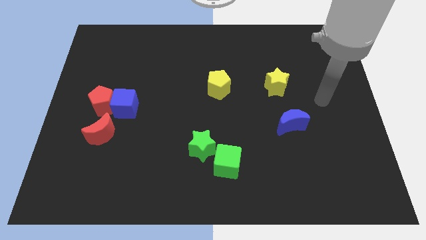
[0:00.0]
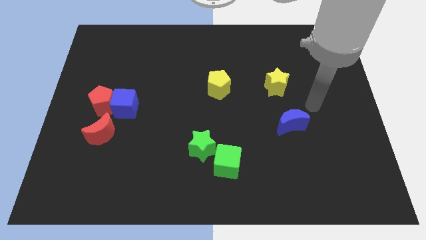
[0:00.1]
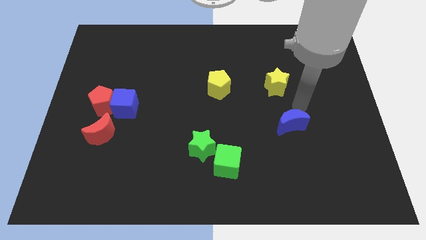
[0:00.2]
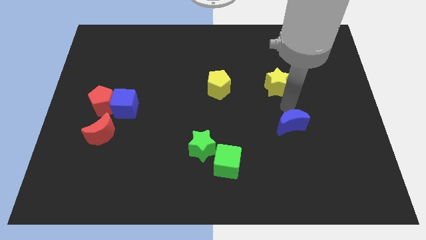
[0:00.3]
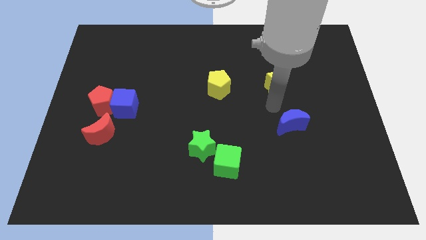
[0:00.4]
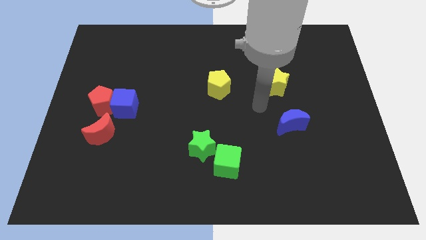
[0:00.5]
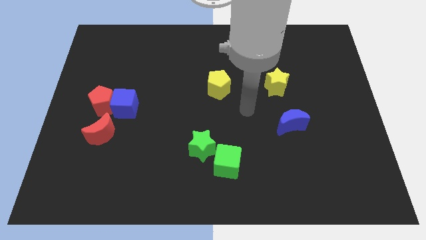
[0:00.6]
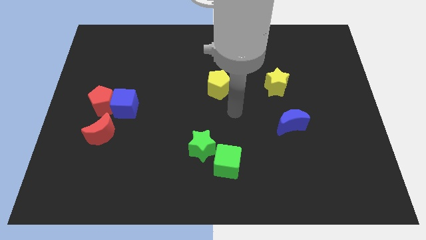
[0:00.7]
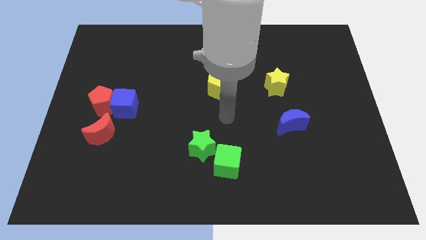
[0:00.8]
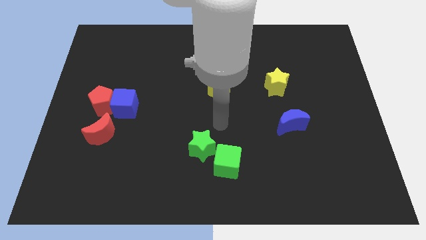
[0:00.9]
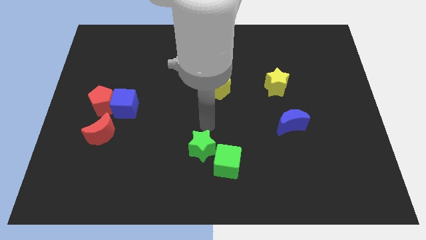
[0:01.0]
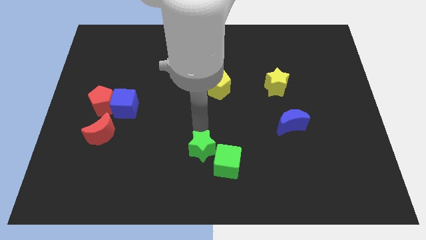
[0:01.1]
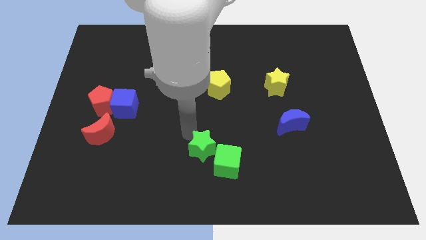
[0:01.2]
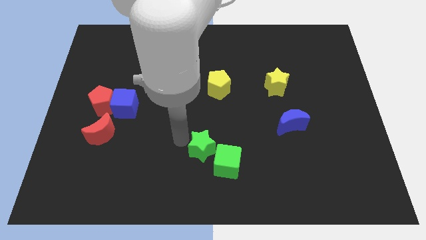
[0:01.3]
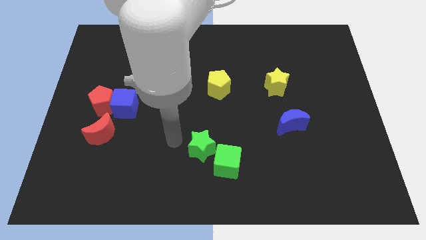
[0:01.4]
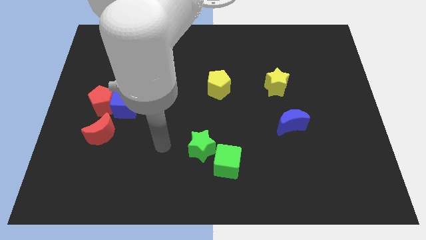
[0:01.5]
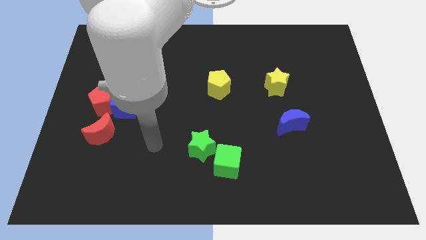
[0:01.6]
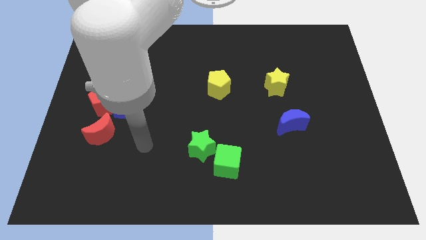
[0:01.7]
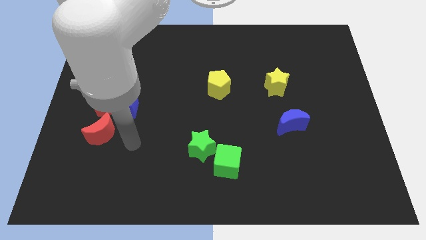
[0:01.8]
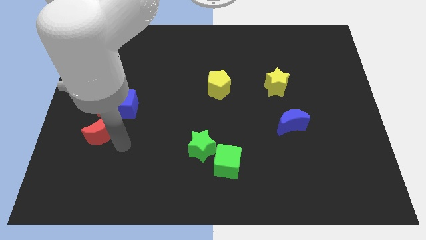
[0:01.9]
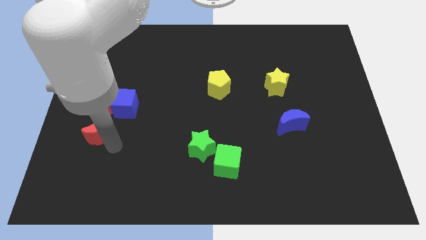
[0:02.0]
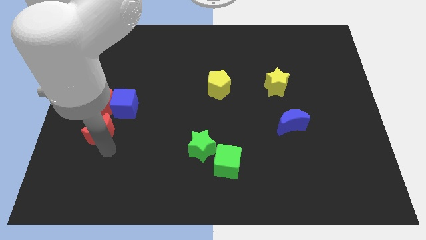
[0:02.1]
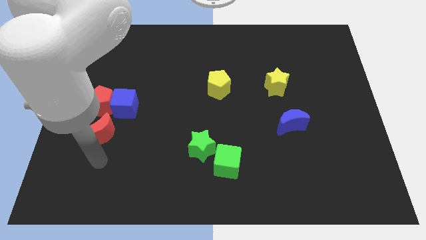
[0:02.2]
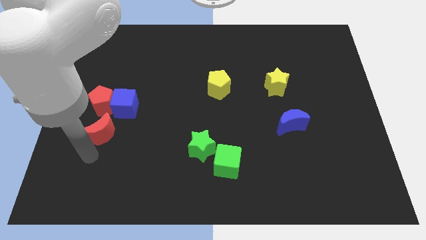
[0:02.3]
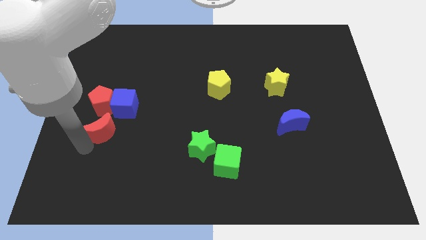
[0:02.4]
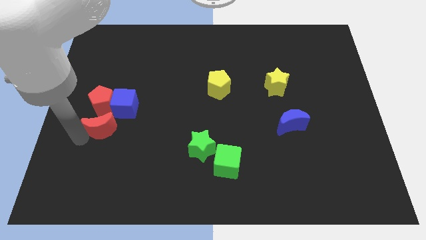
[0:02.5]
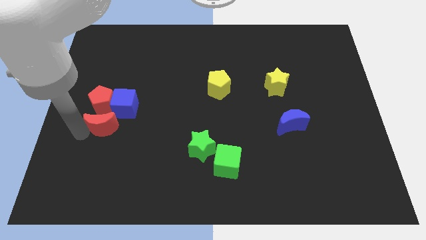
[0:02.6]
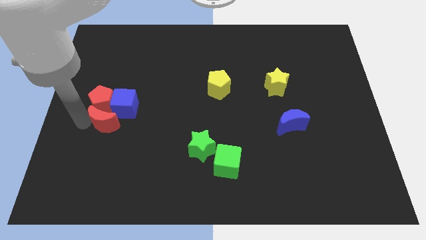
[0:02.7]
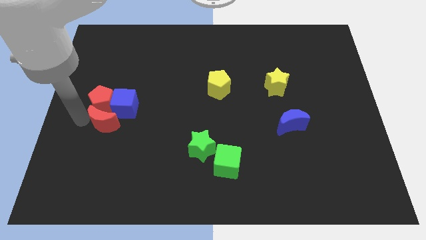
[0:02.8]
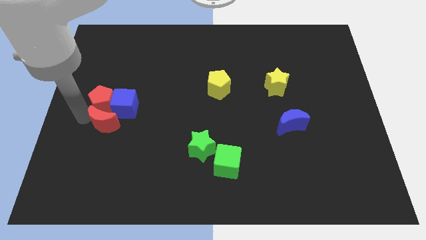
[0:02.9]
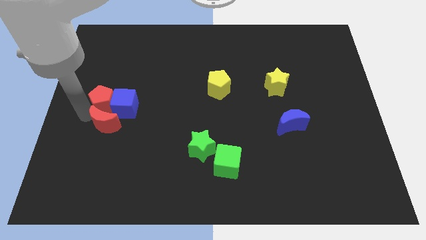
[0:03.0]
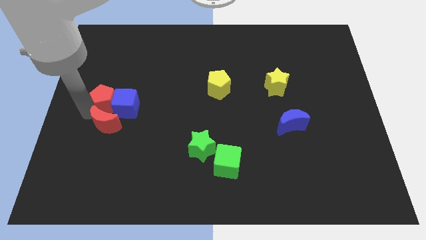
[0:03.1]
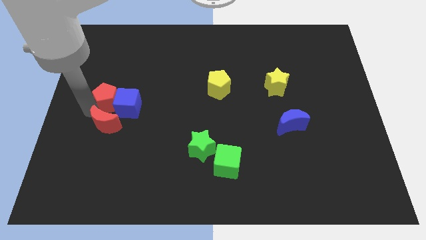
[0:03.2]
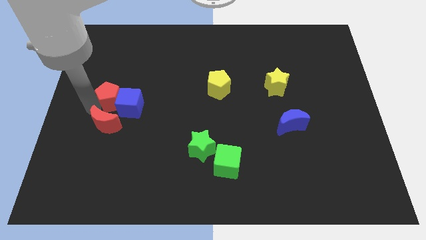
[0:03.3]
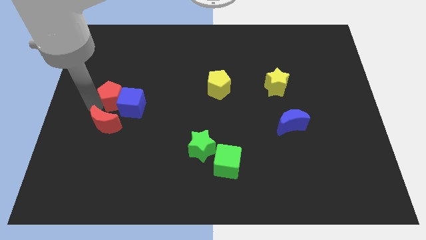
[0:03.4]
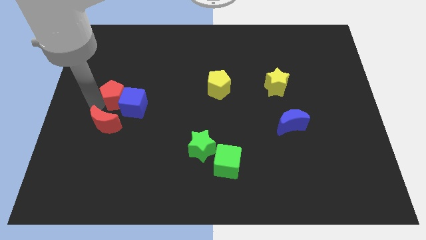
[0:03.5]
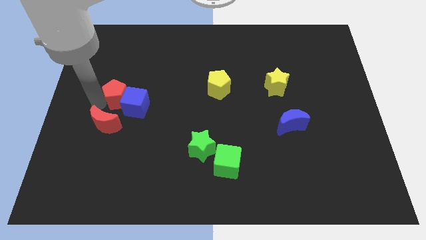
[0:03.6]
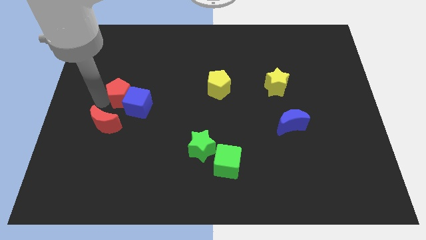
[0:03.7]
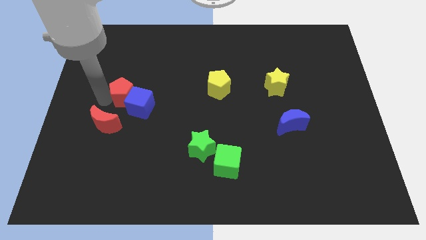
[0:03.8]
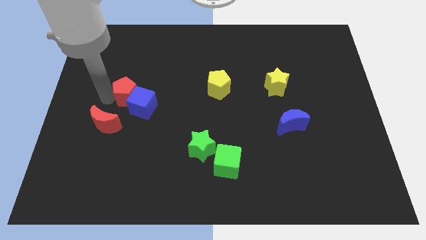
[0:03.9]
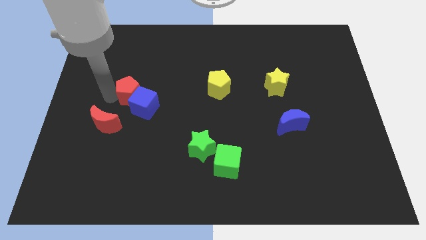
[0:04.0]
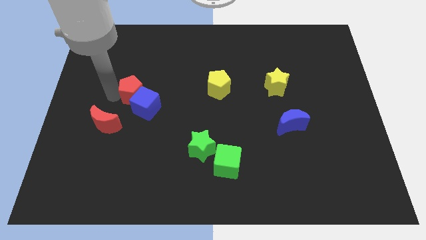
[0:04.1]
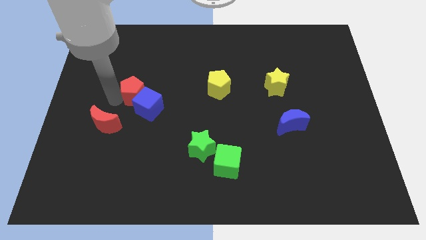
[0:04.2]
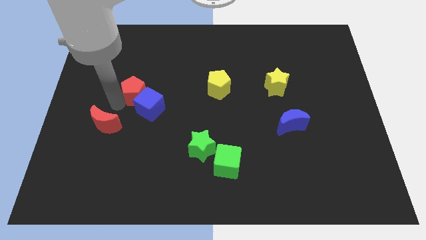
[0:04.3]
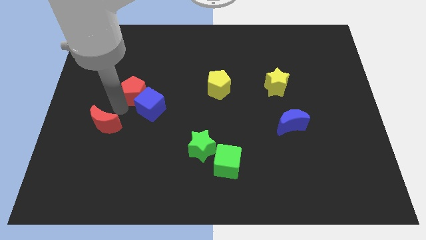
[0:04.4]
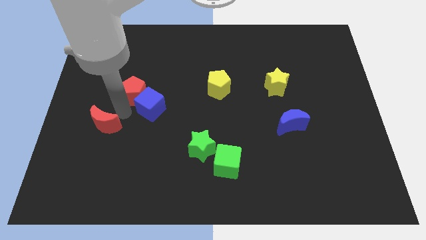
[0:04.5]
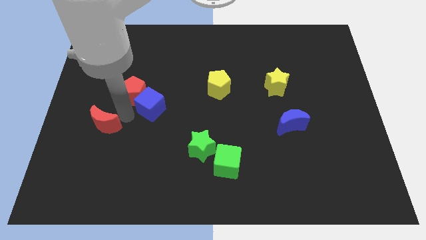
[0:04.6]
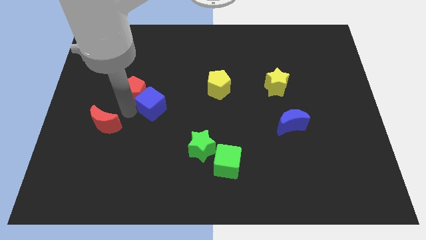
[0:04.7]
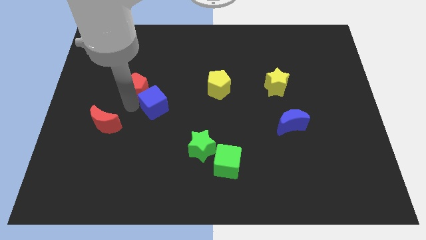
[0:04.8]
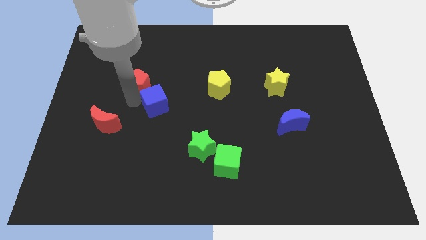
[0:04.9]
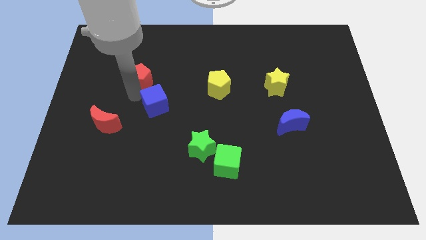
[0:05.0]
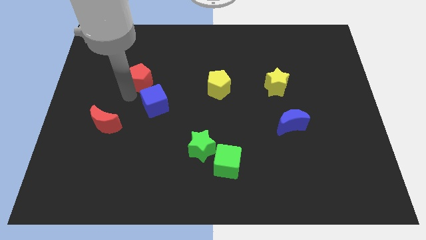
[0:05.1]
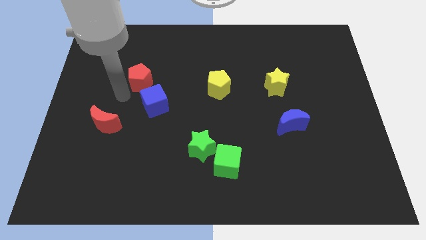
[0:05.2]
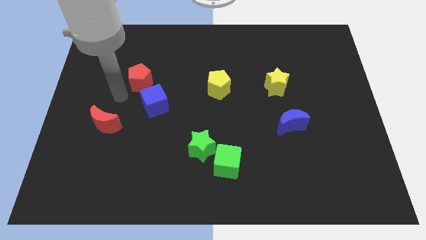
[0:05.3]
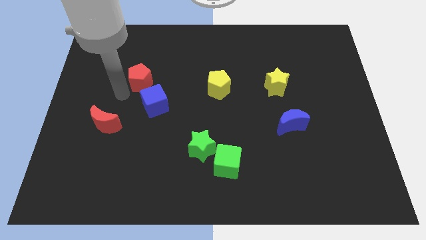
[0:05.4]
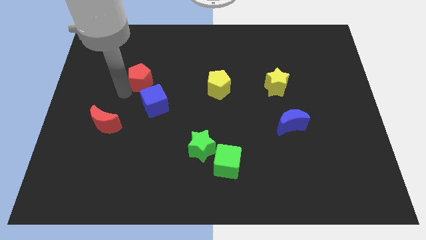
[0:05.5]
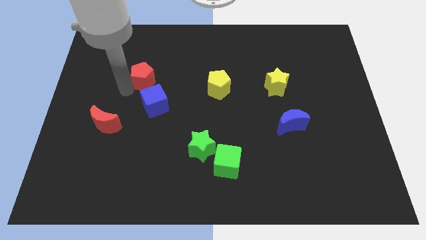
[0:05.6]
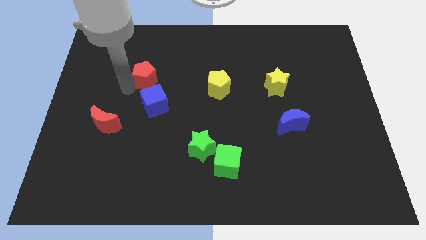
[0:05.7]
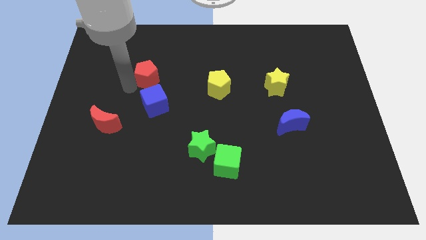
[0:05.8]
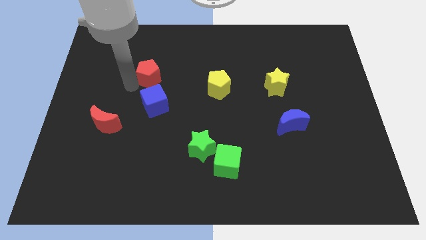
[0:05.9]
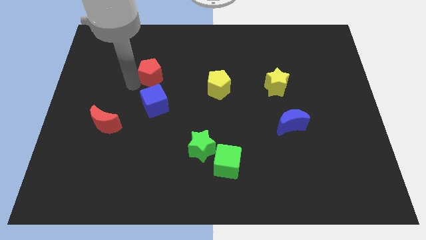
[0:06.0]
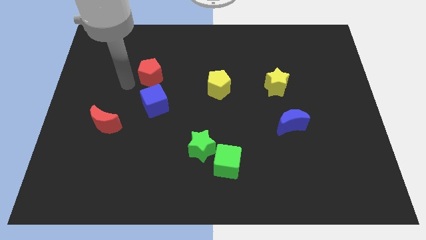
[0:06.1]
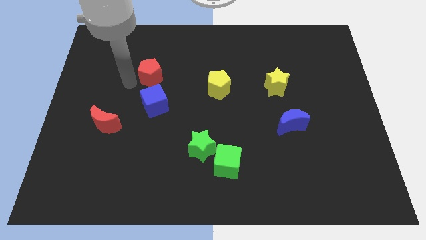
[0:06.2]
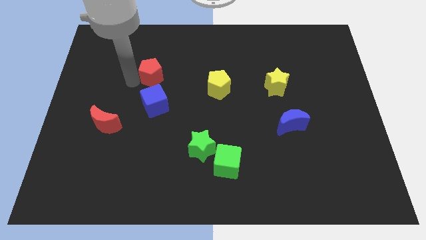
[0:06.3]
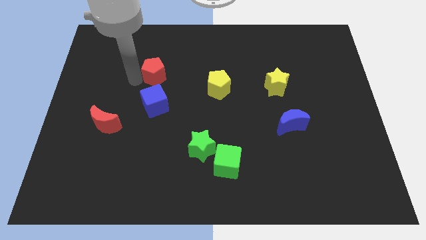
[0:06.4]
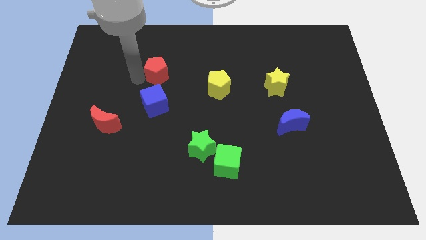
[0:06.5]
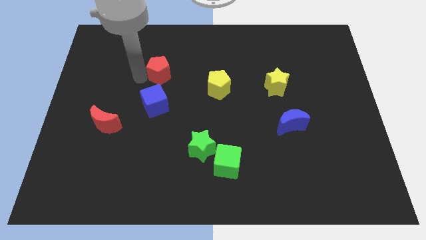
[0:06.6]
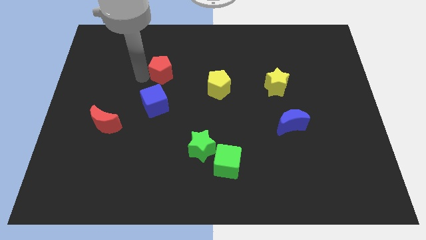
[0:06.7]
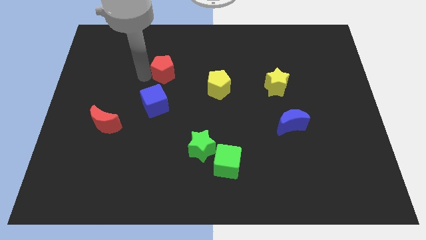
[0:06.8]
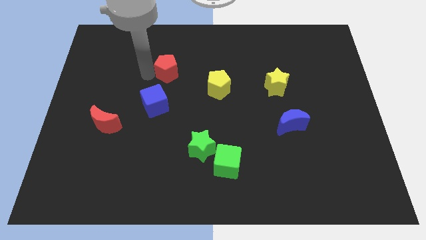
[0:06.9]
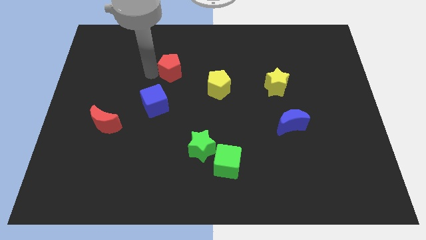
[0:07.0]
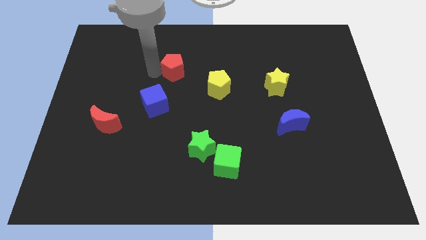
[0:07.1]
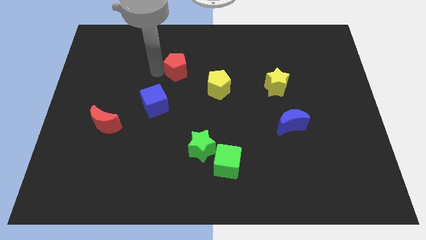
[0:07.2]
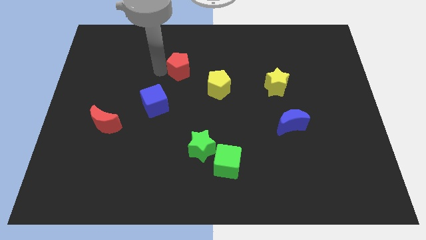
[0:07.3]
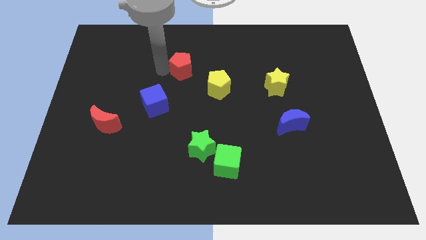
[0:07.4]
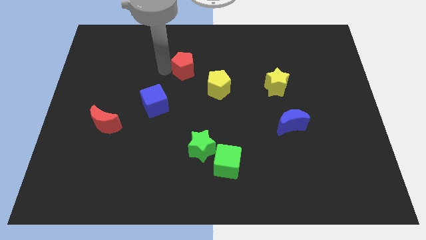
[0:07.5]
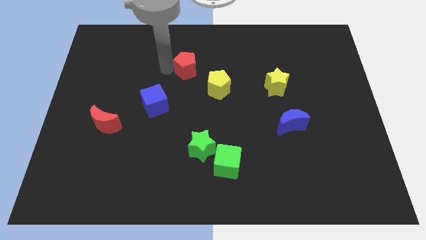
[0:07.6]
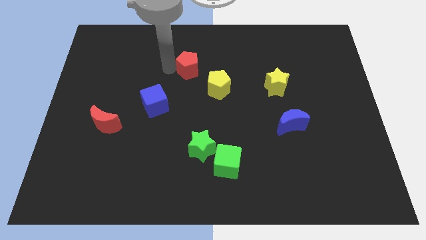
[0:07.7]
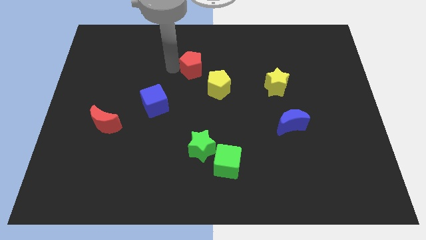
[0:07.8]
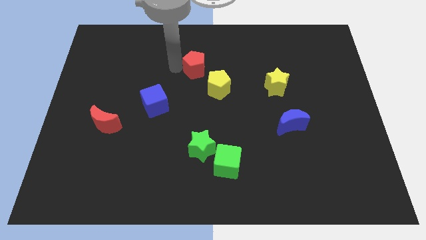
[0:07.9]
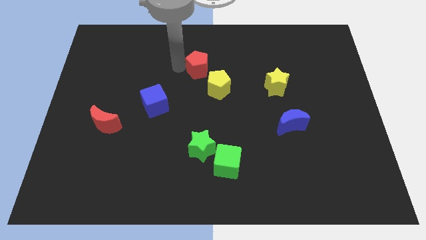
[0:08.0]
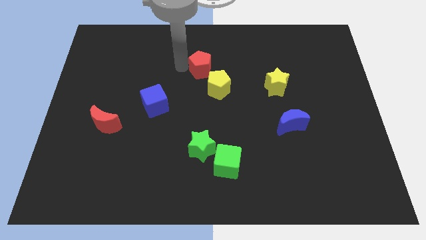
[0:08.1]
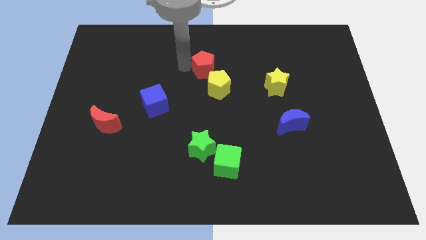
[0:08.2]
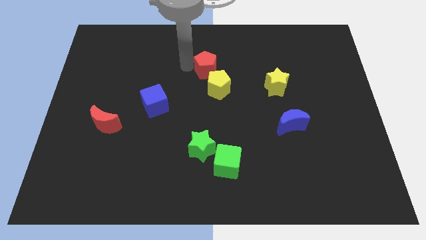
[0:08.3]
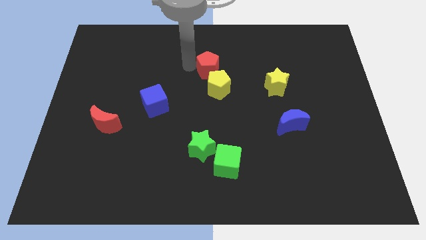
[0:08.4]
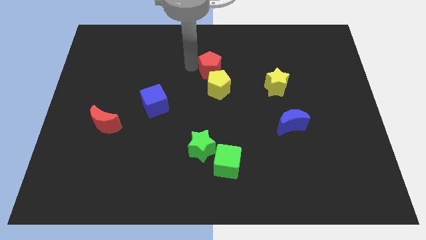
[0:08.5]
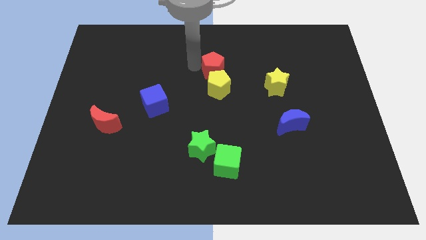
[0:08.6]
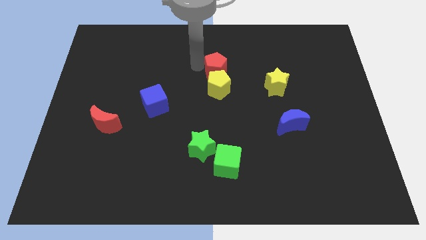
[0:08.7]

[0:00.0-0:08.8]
slide the red pentagon diagonally up and to the right of the yellow pentagon

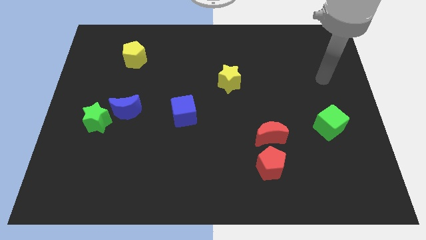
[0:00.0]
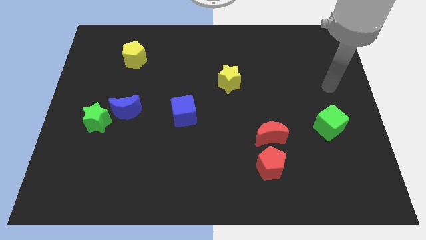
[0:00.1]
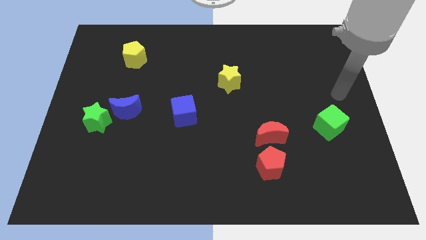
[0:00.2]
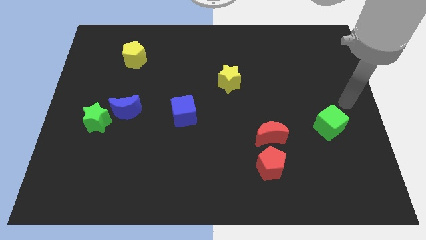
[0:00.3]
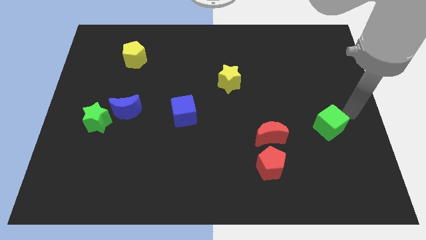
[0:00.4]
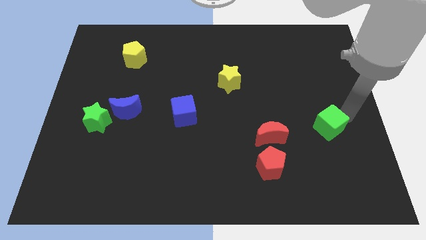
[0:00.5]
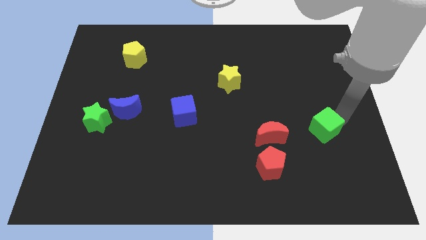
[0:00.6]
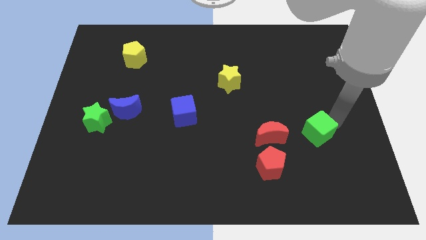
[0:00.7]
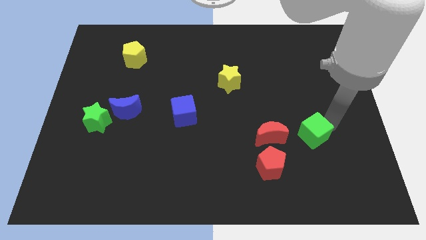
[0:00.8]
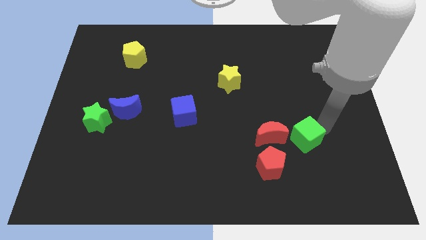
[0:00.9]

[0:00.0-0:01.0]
move the green cube to the top right of the red pentagon
